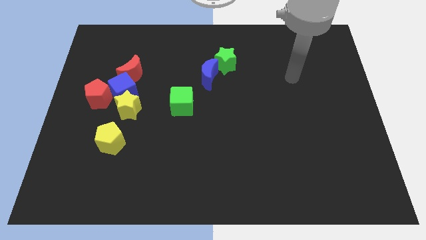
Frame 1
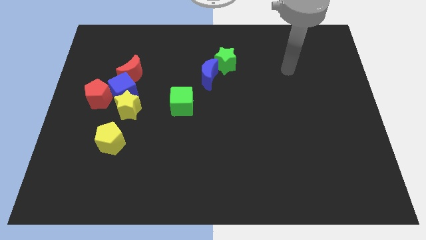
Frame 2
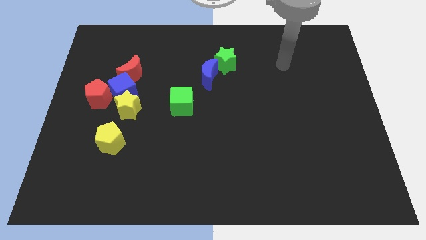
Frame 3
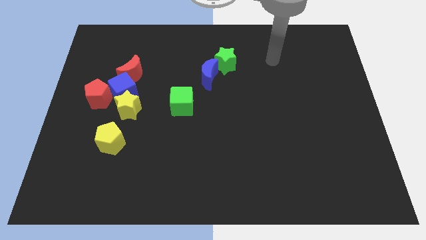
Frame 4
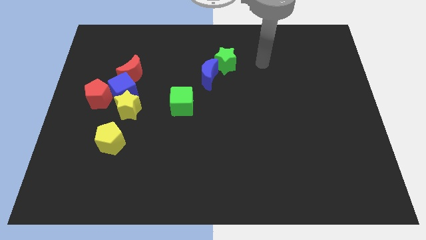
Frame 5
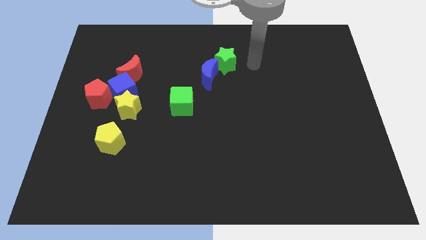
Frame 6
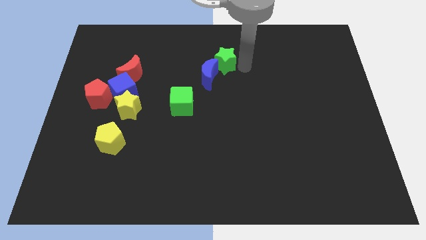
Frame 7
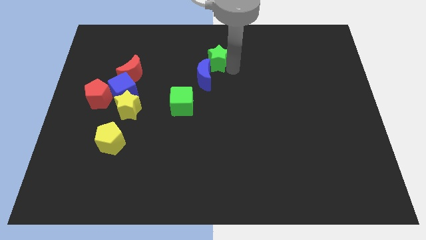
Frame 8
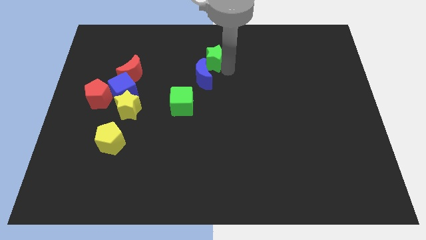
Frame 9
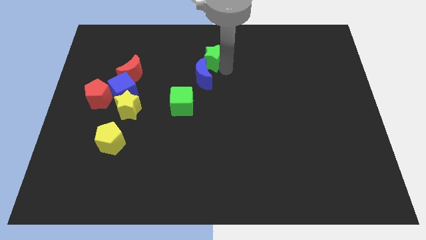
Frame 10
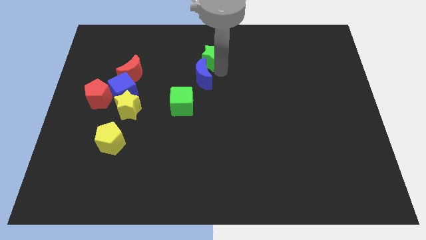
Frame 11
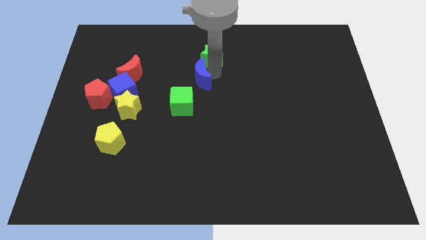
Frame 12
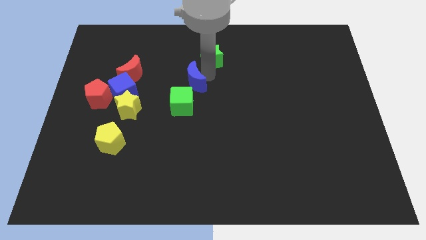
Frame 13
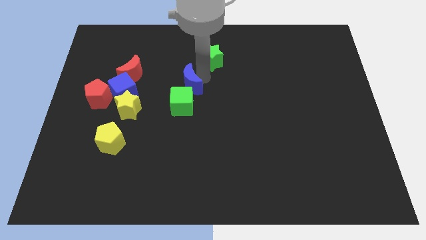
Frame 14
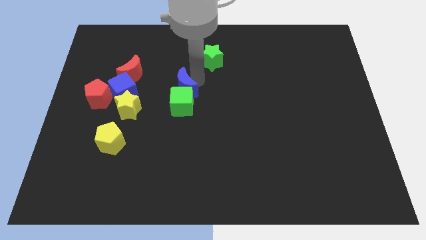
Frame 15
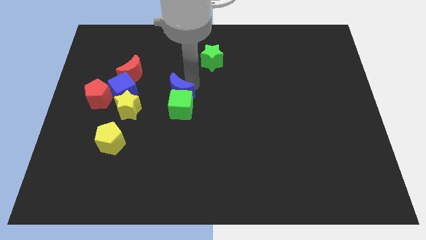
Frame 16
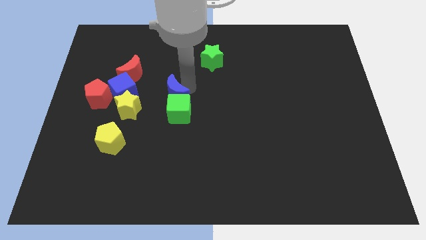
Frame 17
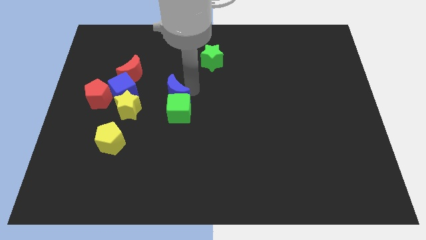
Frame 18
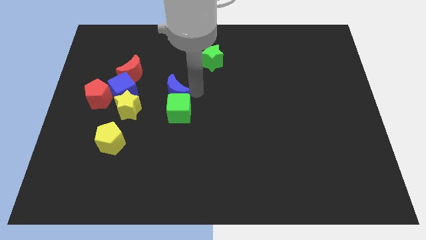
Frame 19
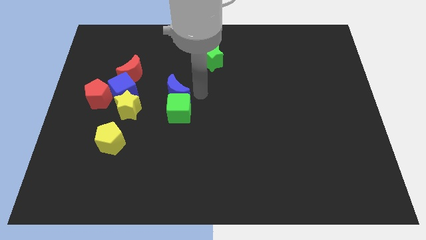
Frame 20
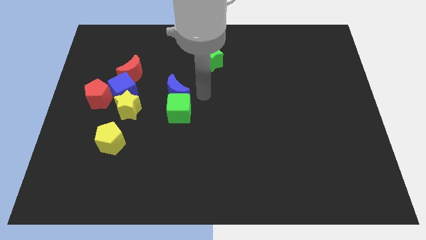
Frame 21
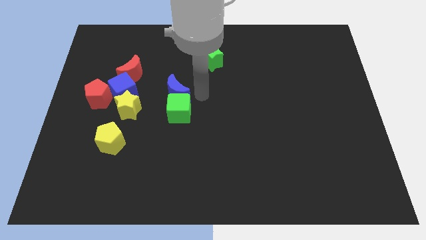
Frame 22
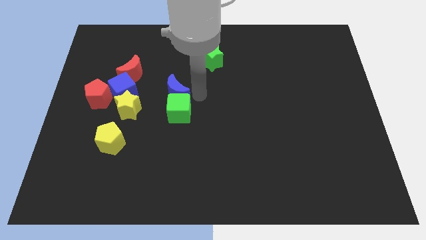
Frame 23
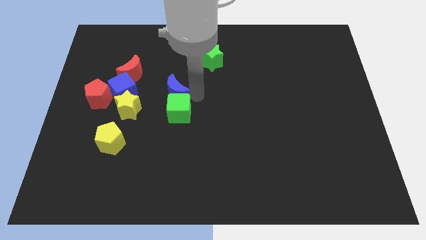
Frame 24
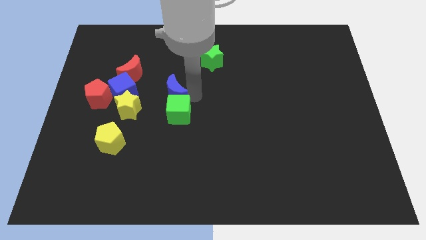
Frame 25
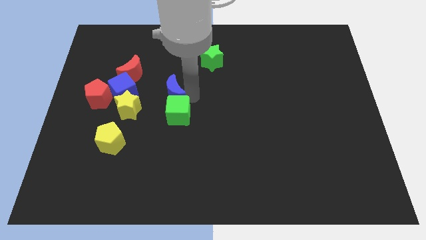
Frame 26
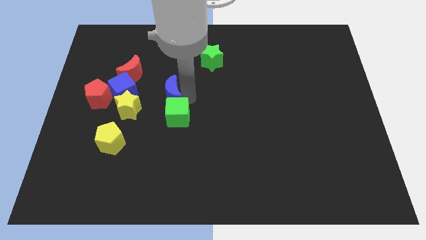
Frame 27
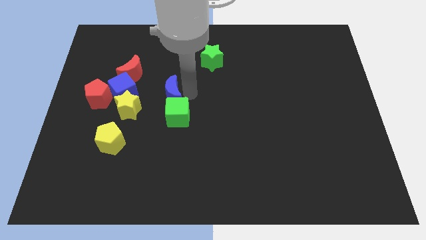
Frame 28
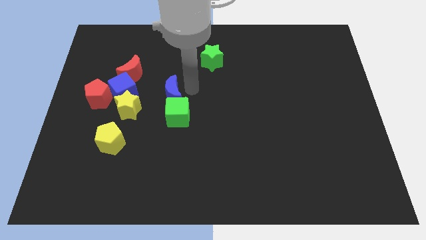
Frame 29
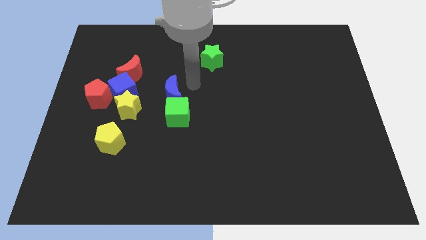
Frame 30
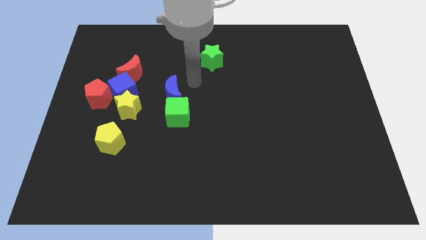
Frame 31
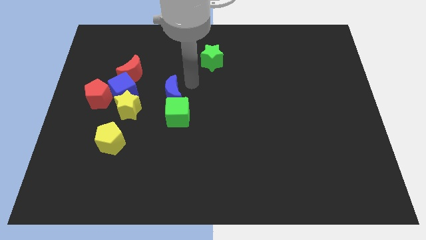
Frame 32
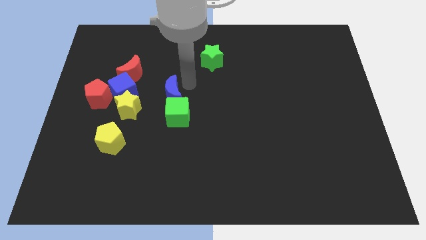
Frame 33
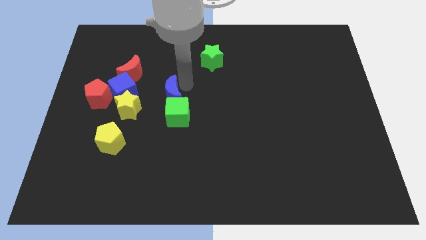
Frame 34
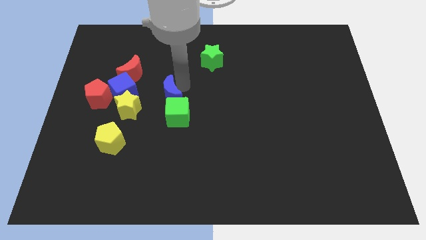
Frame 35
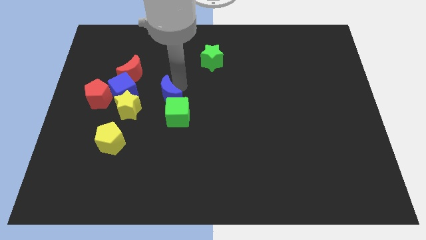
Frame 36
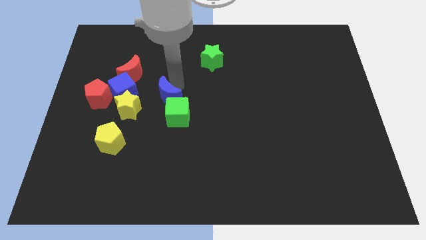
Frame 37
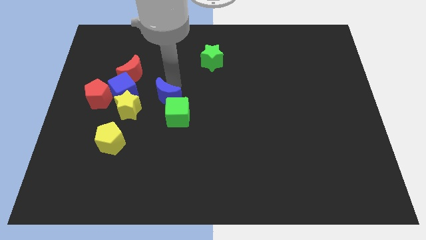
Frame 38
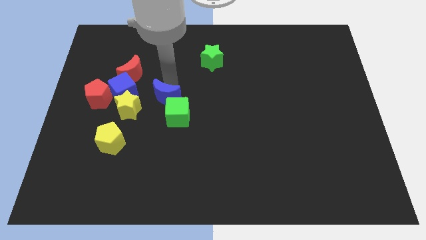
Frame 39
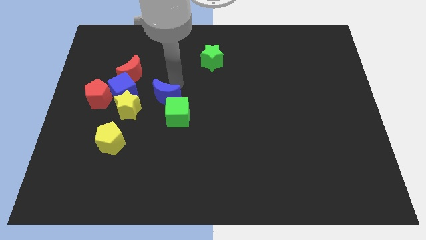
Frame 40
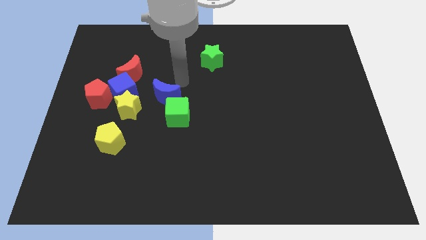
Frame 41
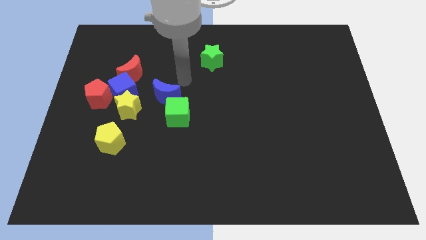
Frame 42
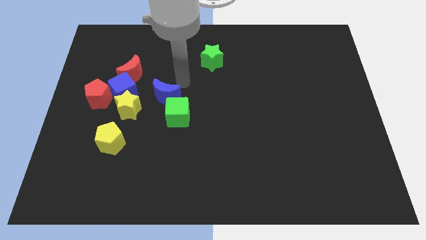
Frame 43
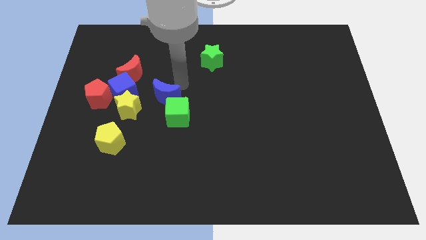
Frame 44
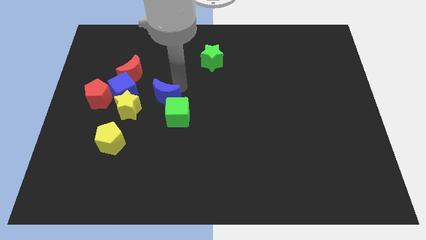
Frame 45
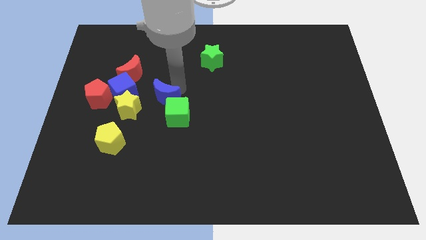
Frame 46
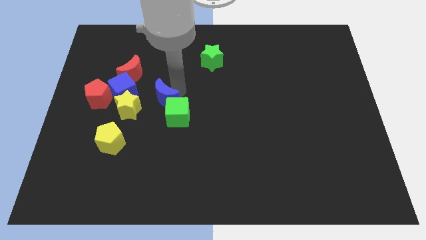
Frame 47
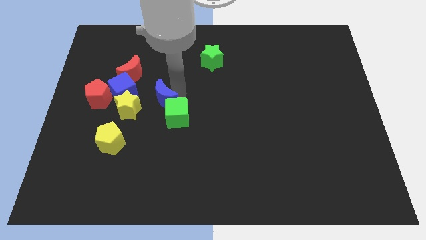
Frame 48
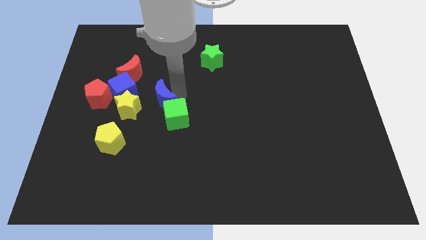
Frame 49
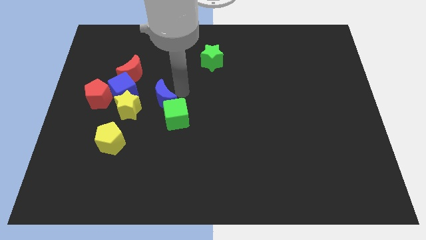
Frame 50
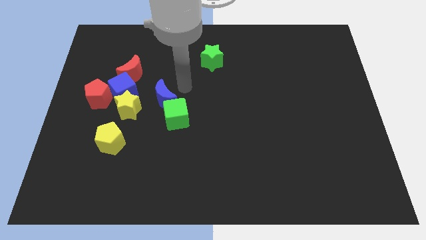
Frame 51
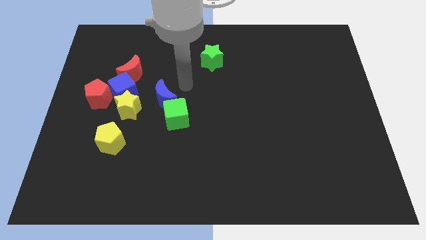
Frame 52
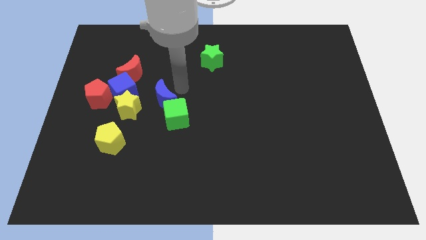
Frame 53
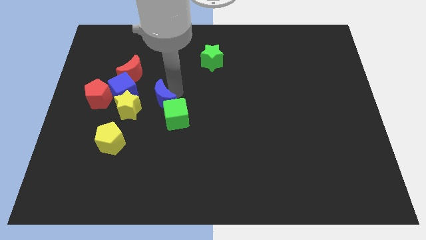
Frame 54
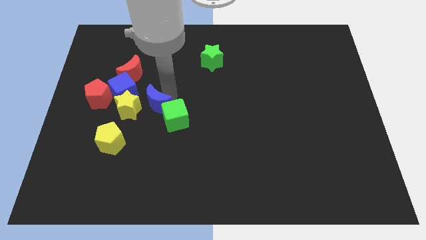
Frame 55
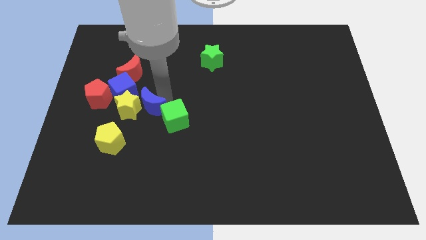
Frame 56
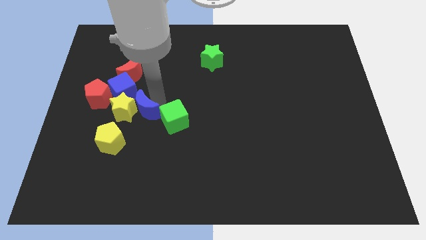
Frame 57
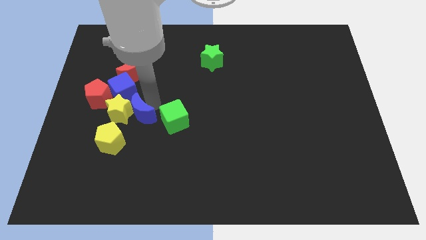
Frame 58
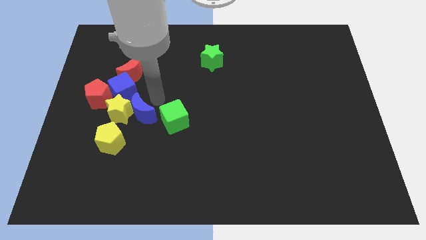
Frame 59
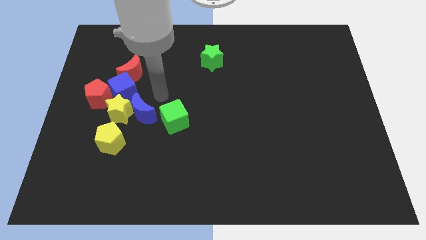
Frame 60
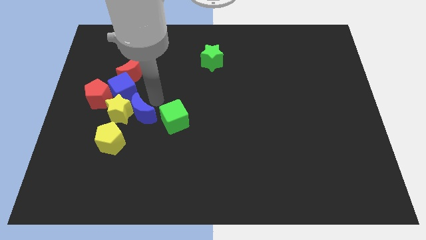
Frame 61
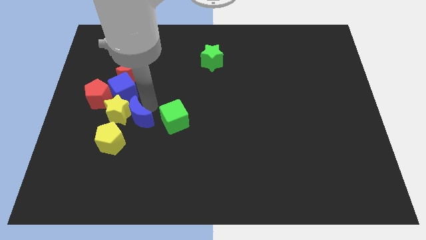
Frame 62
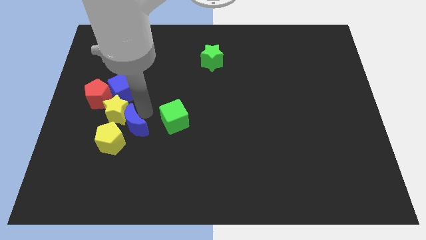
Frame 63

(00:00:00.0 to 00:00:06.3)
push the blue moon towards the yellow pentagon

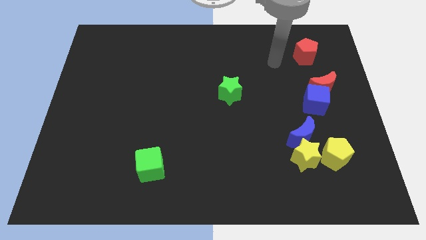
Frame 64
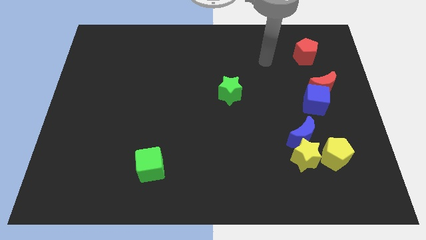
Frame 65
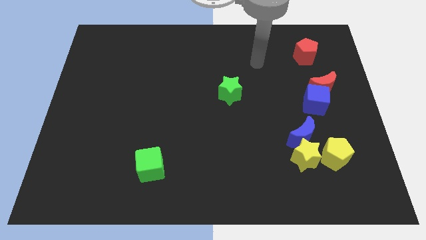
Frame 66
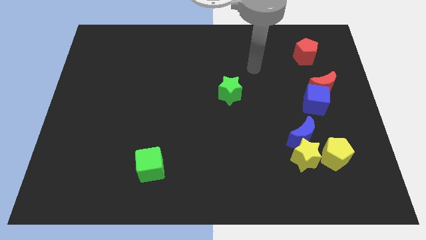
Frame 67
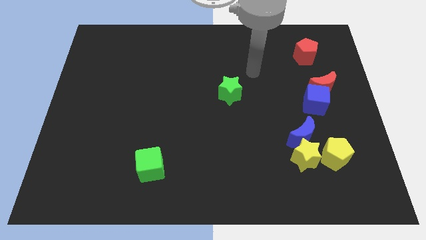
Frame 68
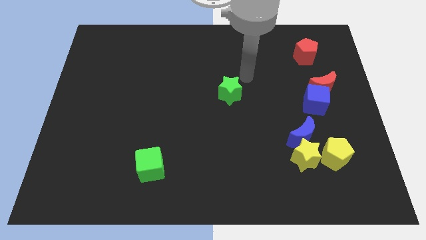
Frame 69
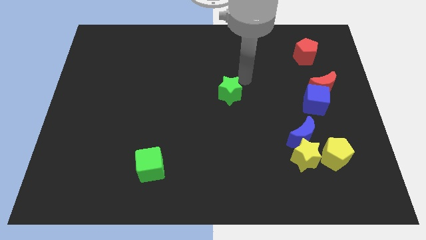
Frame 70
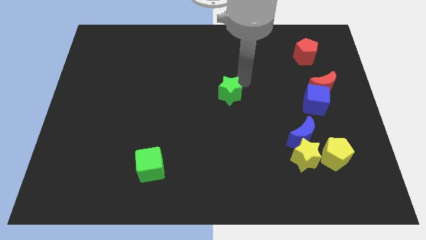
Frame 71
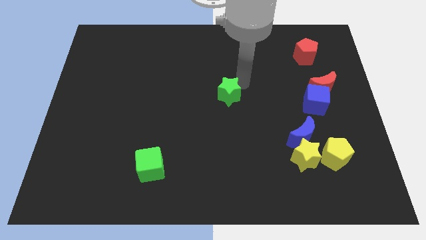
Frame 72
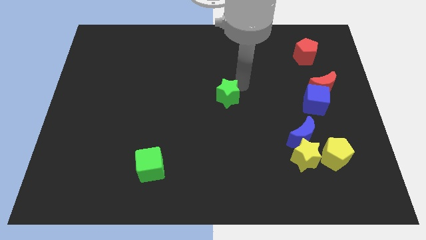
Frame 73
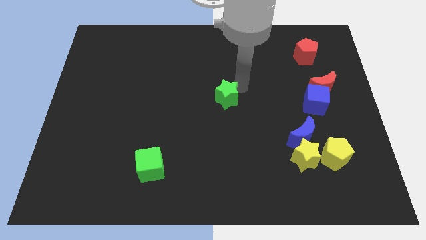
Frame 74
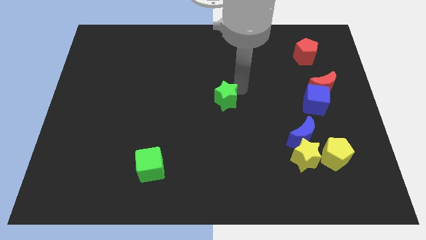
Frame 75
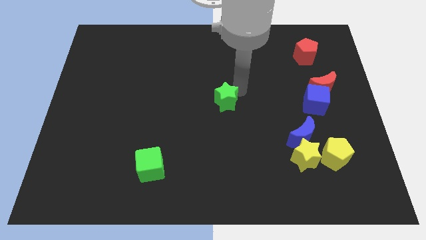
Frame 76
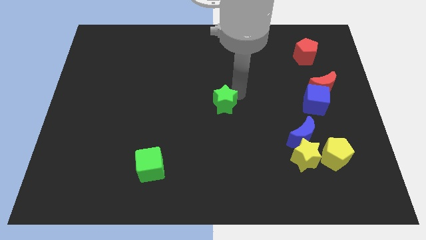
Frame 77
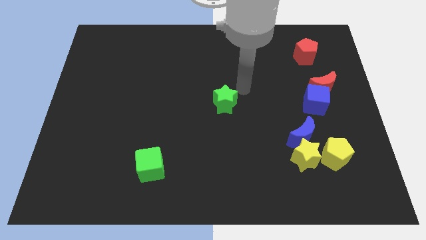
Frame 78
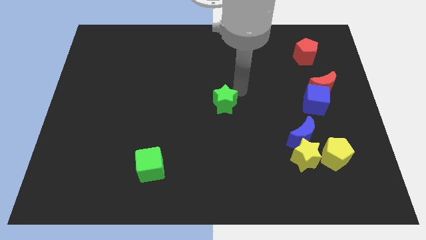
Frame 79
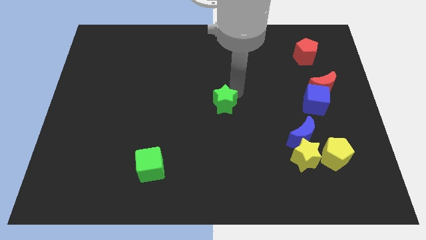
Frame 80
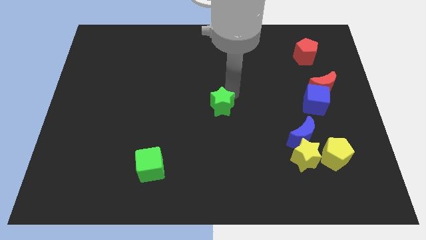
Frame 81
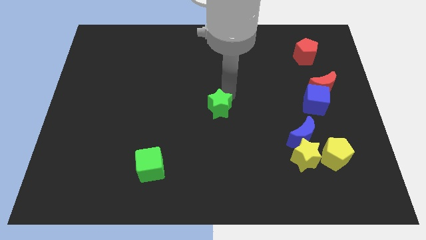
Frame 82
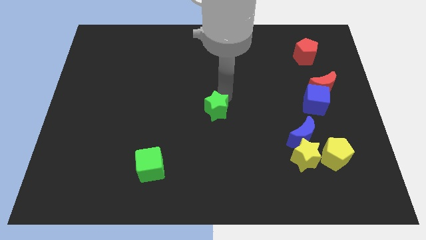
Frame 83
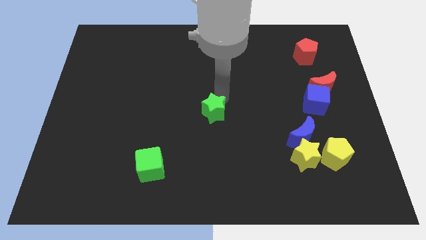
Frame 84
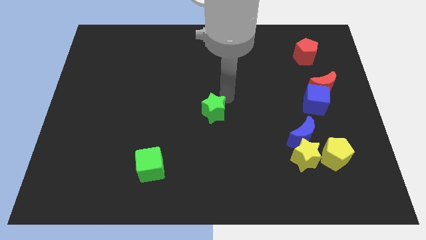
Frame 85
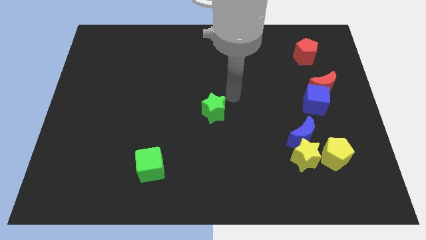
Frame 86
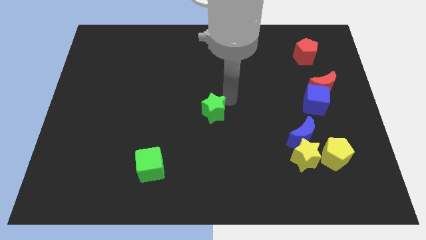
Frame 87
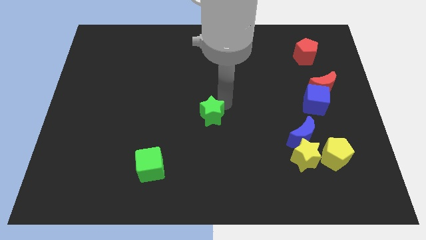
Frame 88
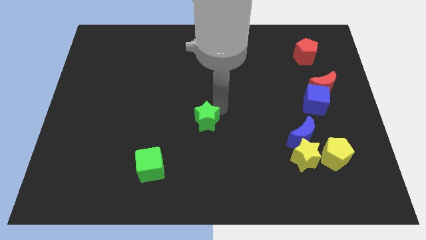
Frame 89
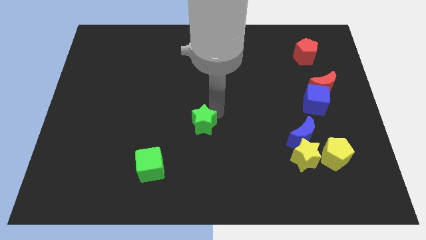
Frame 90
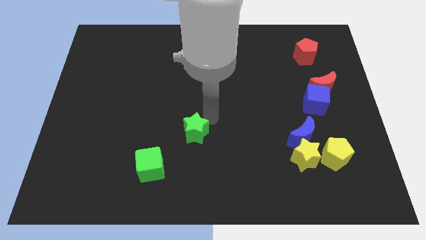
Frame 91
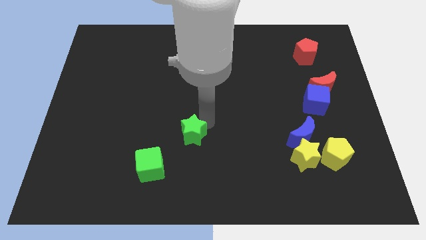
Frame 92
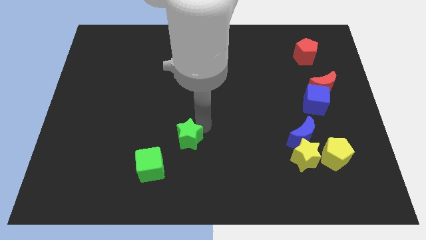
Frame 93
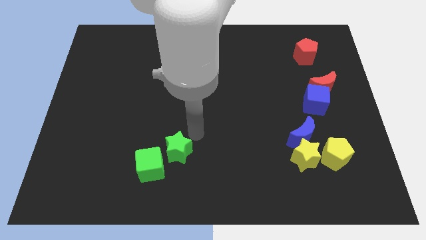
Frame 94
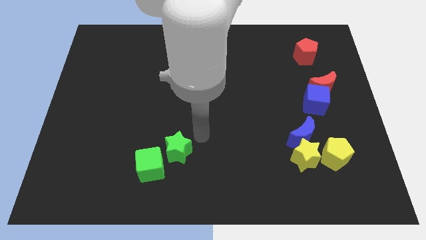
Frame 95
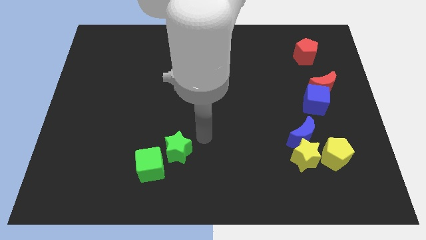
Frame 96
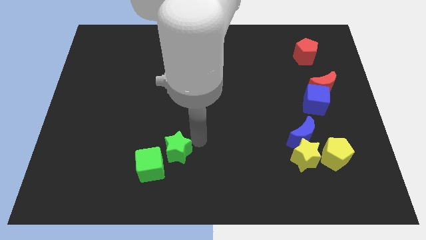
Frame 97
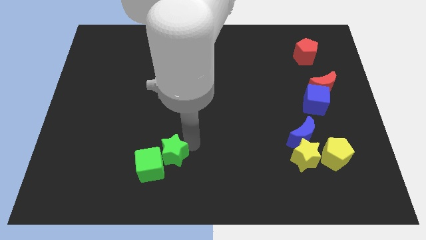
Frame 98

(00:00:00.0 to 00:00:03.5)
put the green star towards the green cube
